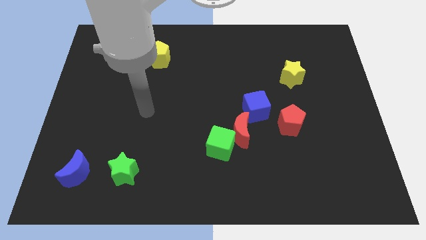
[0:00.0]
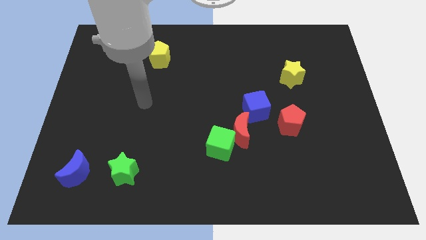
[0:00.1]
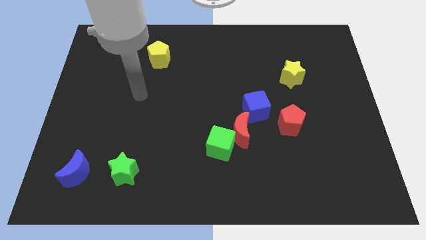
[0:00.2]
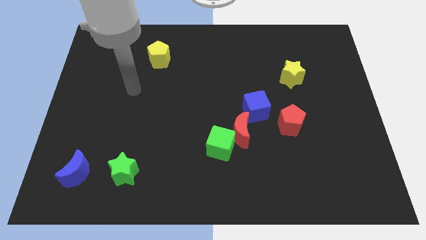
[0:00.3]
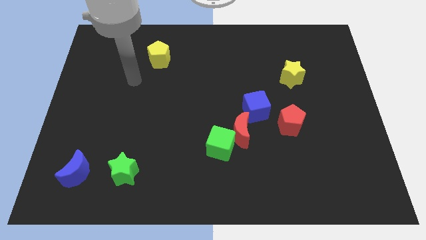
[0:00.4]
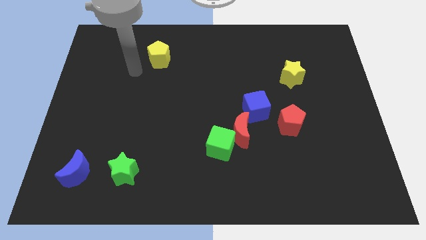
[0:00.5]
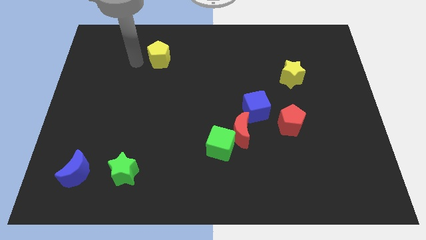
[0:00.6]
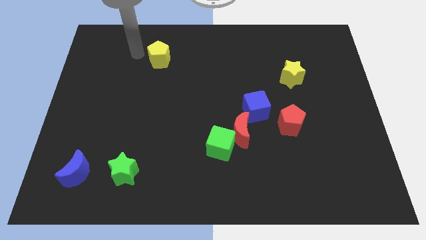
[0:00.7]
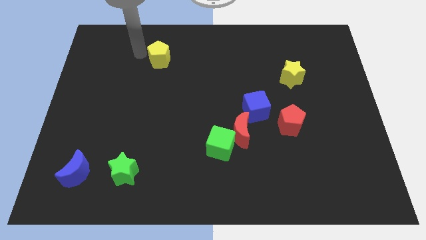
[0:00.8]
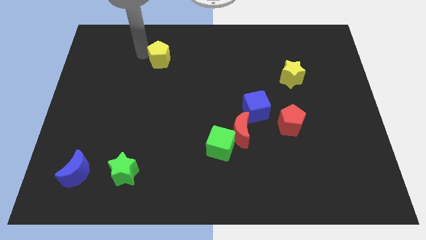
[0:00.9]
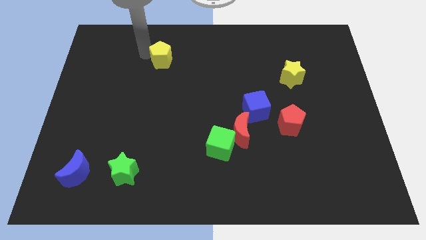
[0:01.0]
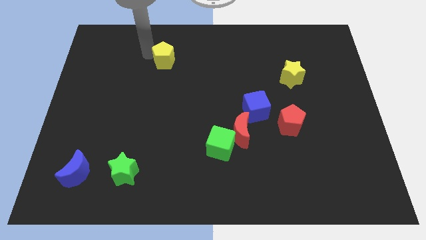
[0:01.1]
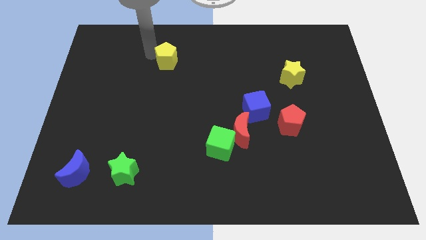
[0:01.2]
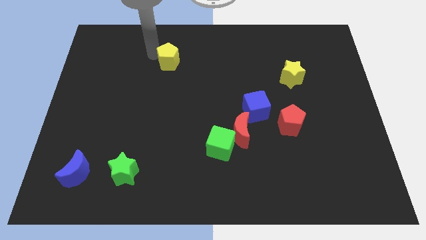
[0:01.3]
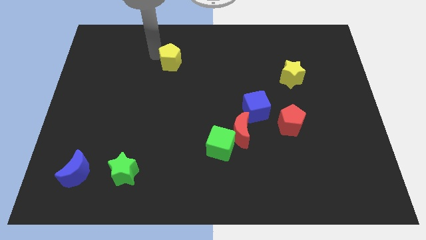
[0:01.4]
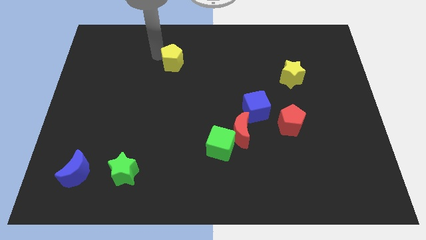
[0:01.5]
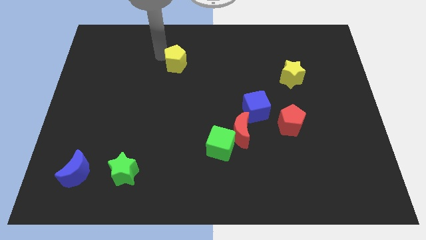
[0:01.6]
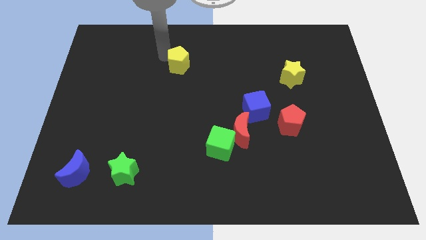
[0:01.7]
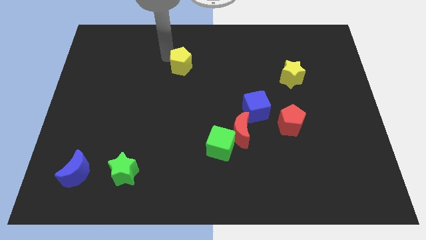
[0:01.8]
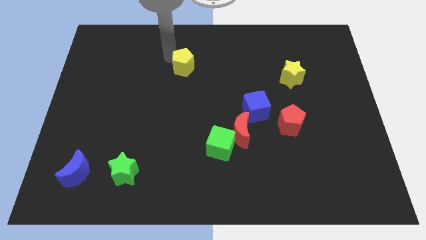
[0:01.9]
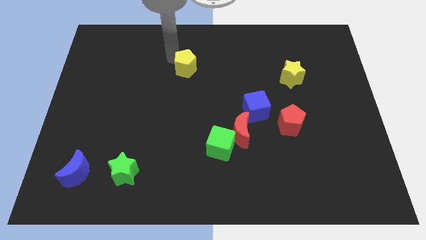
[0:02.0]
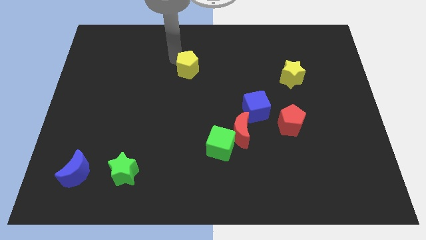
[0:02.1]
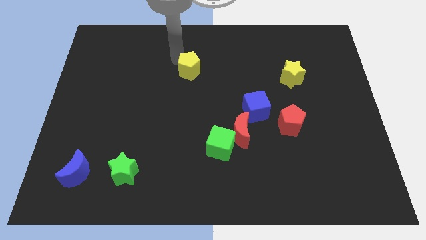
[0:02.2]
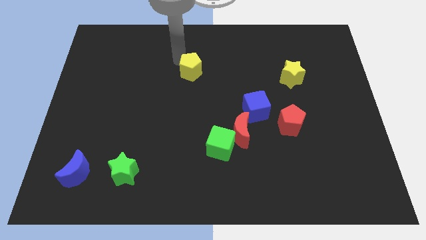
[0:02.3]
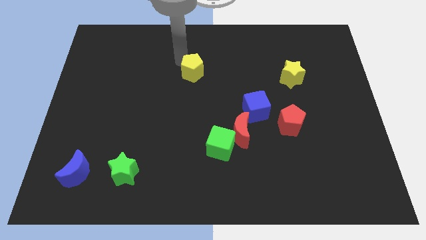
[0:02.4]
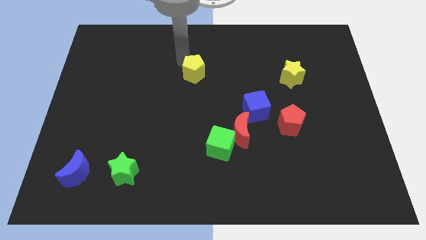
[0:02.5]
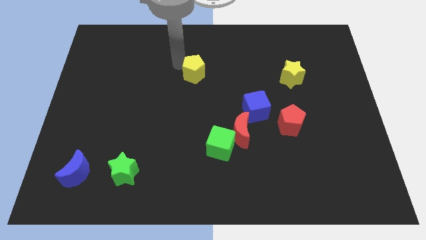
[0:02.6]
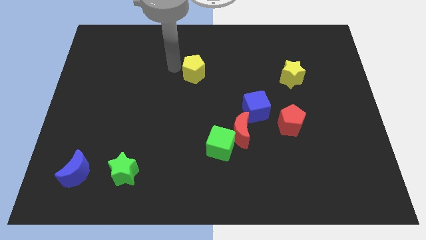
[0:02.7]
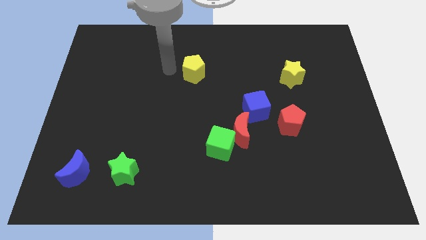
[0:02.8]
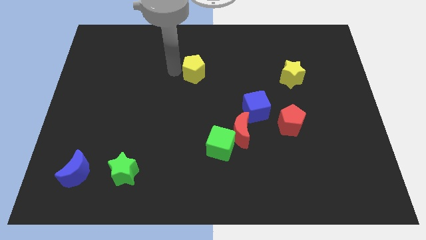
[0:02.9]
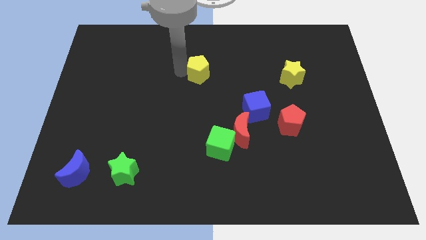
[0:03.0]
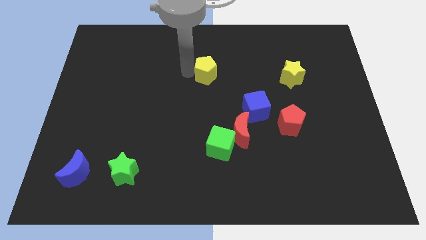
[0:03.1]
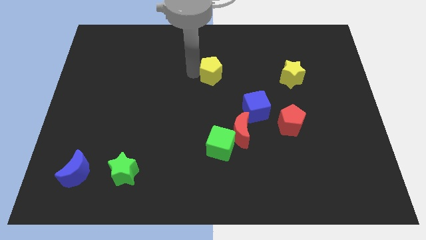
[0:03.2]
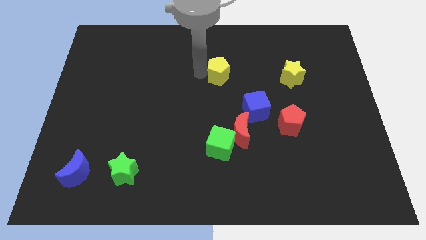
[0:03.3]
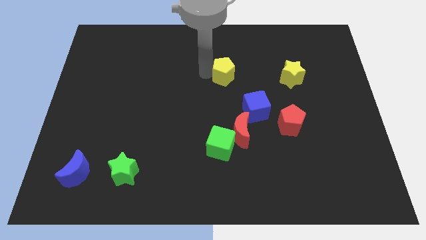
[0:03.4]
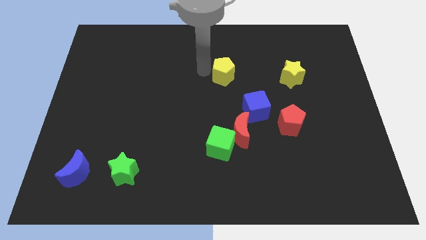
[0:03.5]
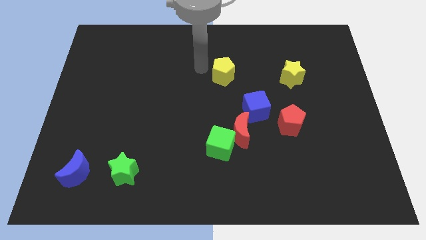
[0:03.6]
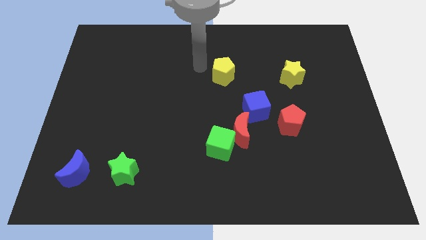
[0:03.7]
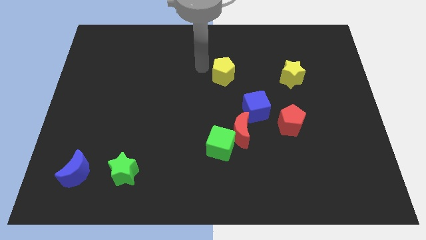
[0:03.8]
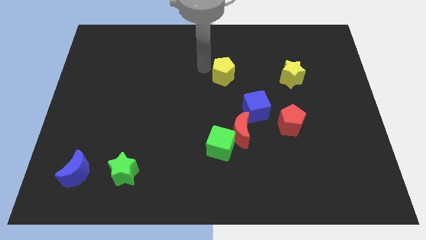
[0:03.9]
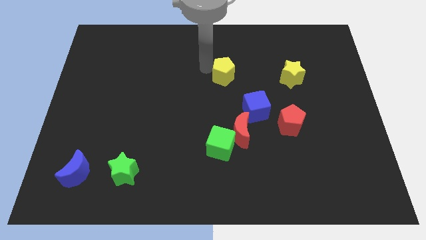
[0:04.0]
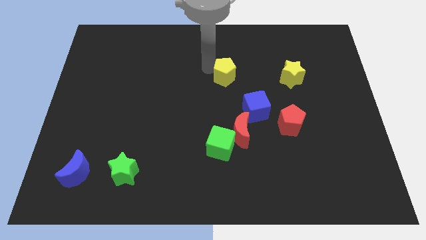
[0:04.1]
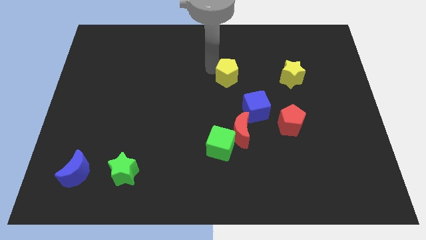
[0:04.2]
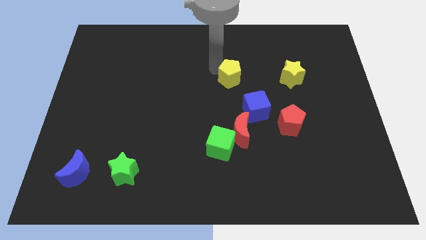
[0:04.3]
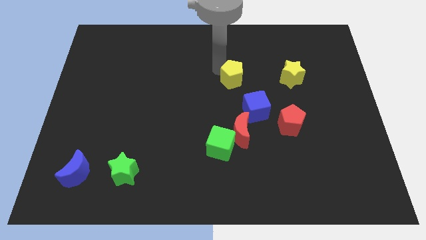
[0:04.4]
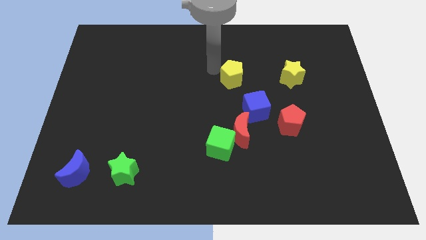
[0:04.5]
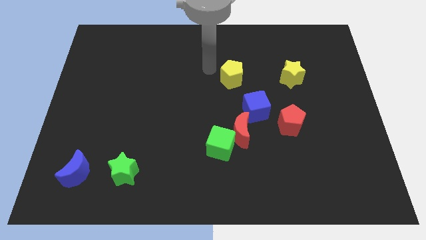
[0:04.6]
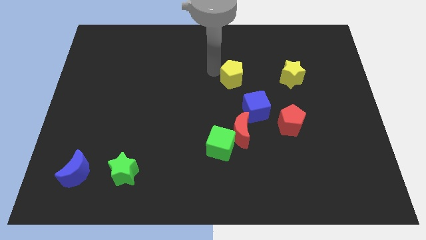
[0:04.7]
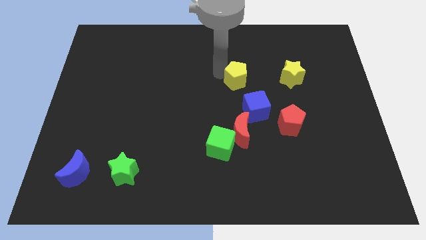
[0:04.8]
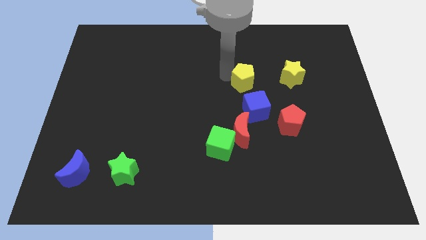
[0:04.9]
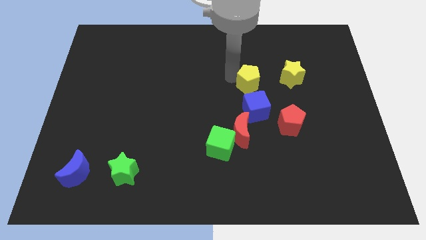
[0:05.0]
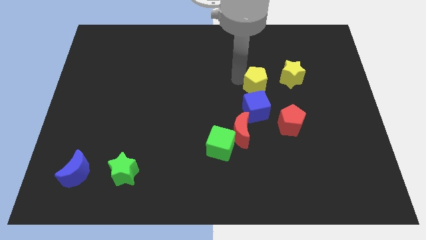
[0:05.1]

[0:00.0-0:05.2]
put the yellow pentagon to the bottom left of the yellow star

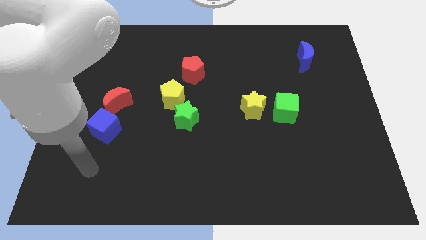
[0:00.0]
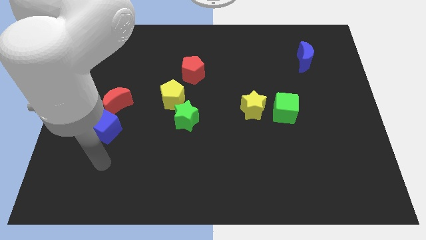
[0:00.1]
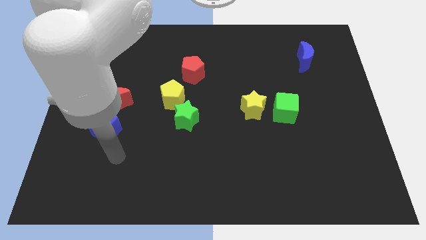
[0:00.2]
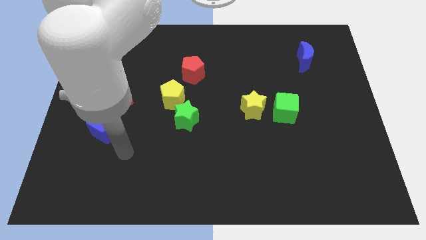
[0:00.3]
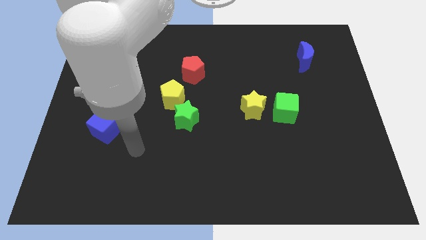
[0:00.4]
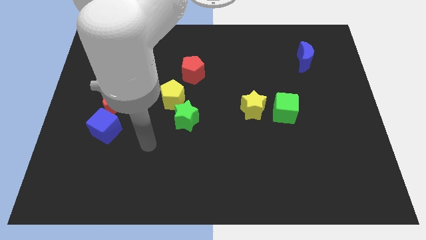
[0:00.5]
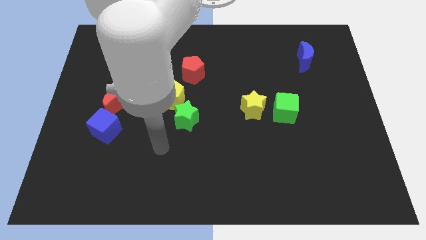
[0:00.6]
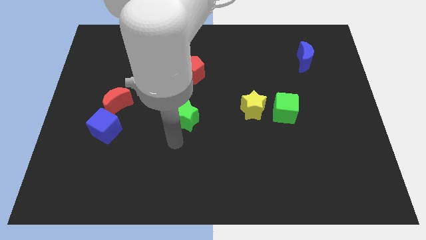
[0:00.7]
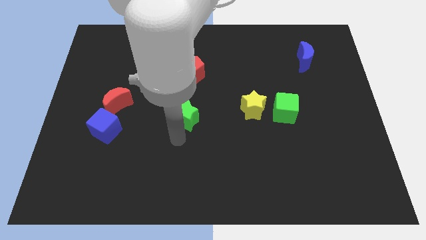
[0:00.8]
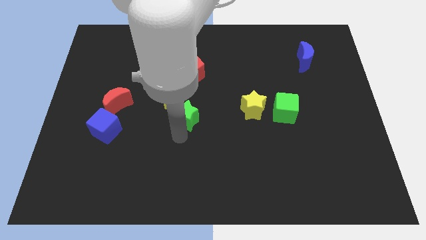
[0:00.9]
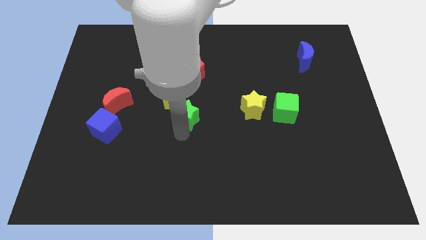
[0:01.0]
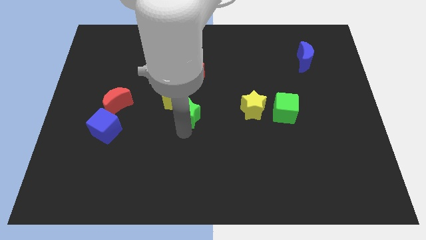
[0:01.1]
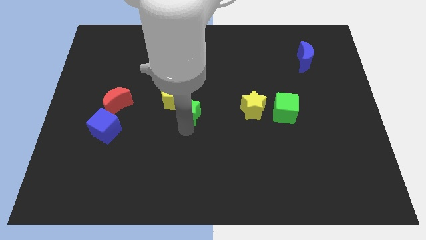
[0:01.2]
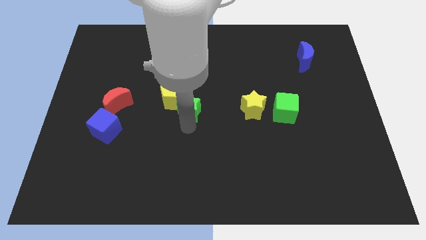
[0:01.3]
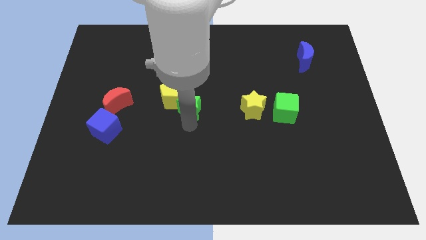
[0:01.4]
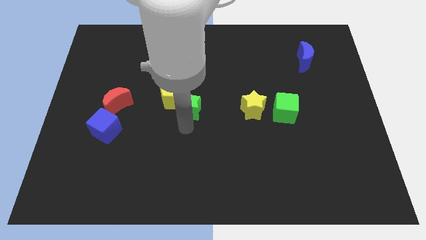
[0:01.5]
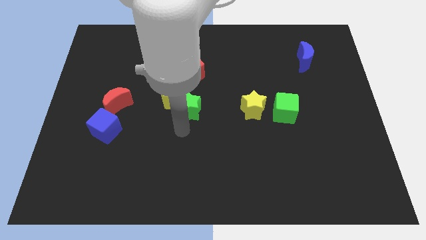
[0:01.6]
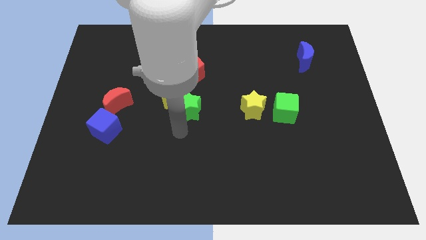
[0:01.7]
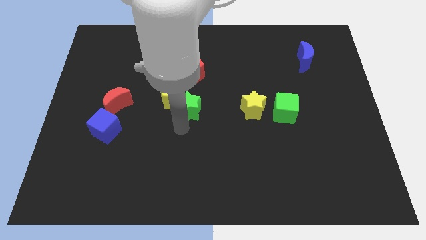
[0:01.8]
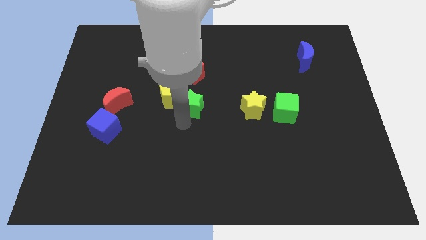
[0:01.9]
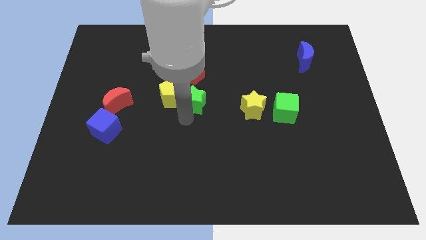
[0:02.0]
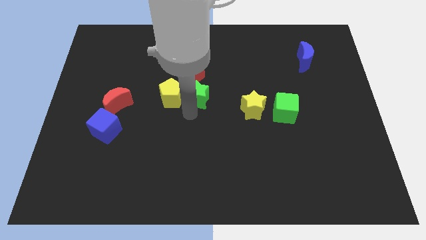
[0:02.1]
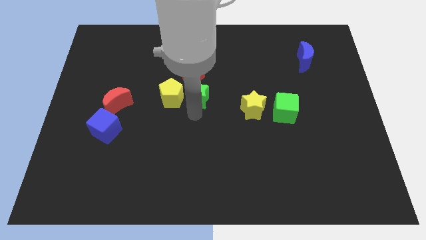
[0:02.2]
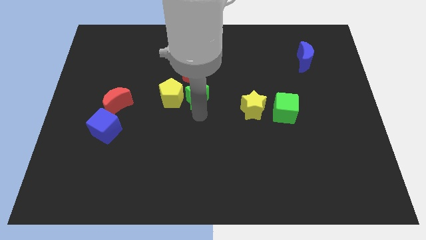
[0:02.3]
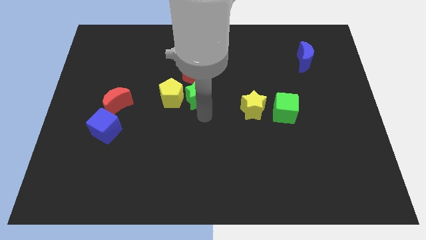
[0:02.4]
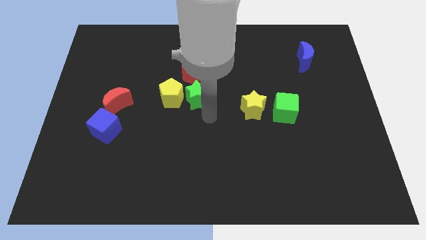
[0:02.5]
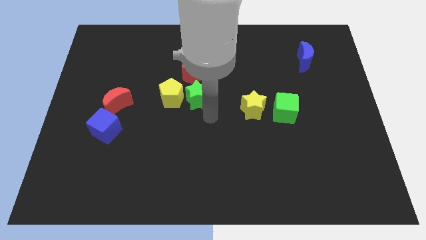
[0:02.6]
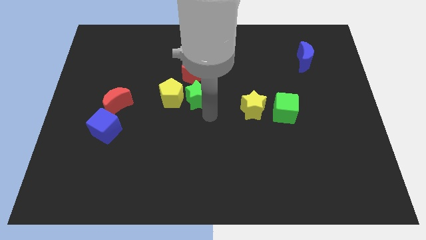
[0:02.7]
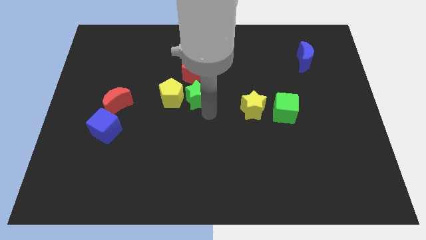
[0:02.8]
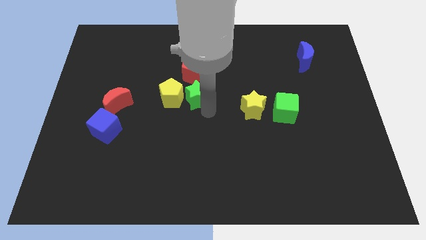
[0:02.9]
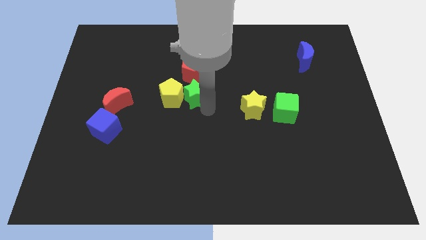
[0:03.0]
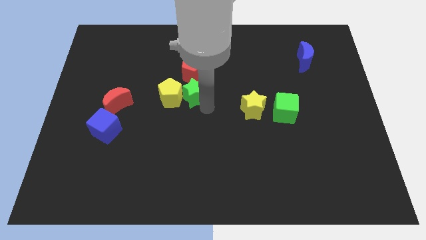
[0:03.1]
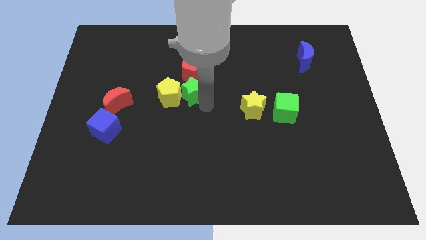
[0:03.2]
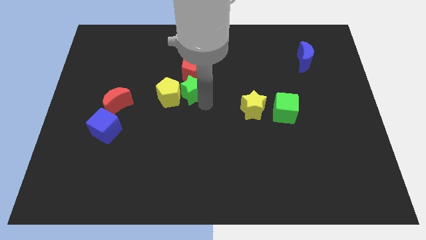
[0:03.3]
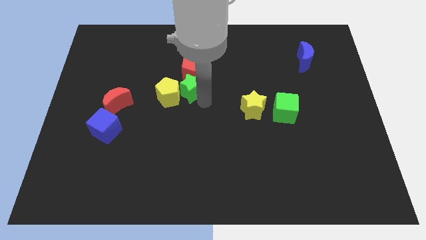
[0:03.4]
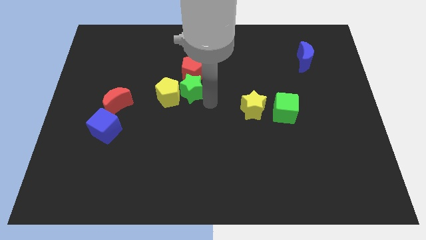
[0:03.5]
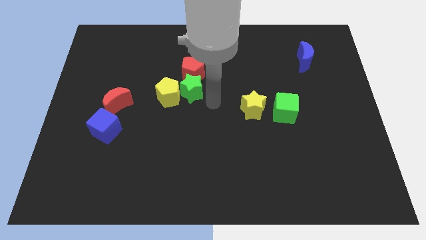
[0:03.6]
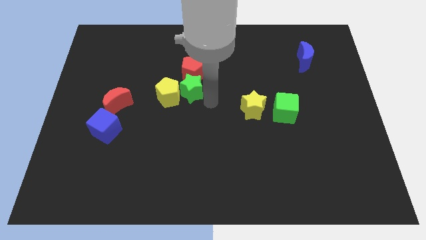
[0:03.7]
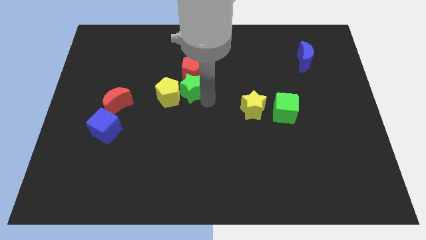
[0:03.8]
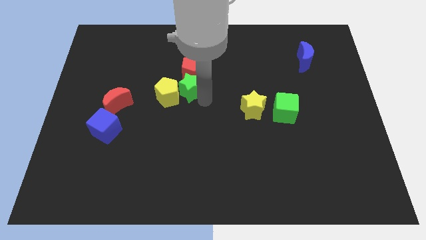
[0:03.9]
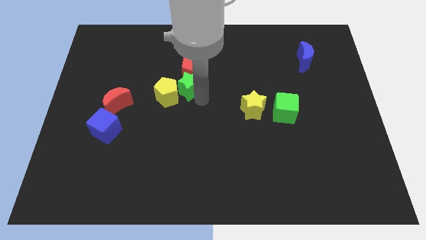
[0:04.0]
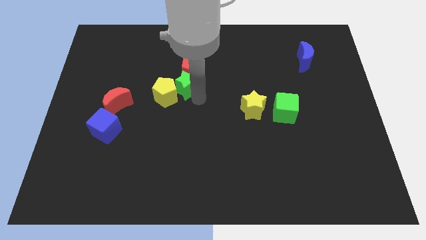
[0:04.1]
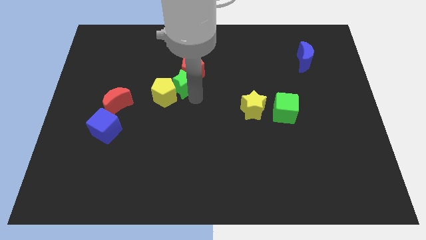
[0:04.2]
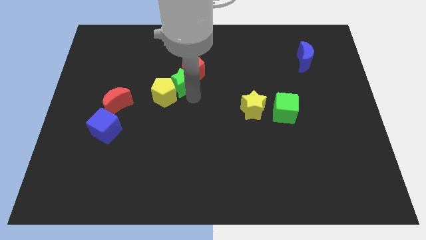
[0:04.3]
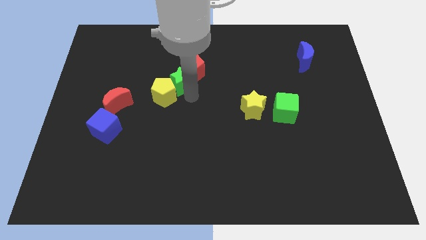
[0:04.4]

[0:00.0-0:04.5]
move the green star left of the red pentagon
